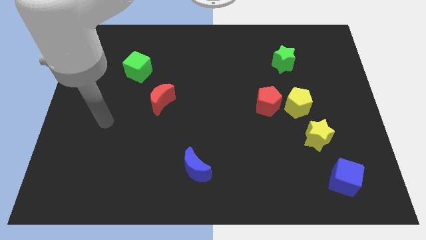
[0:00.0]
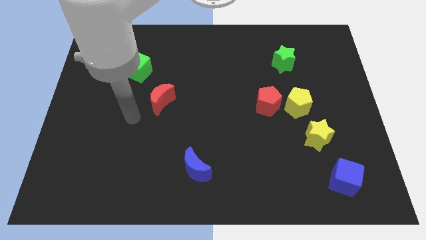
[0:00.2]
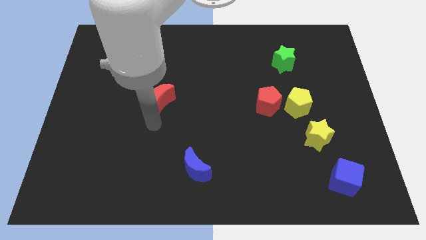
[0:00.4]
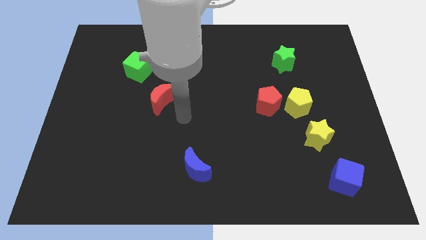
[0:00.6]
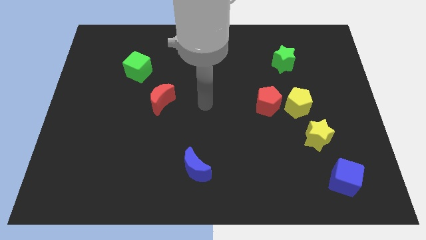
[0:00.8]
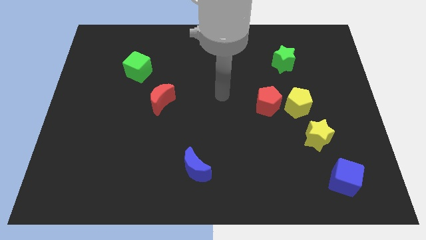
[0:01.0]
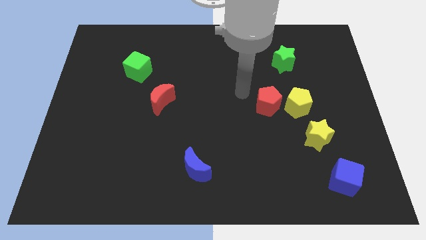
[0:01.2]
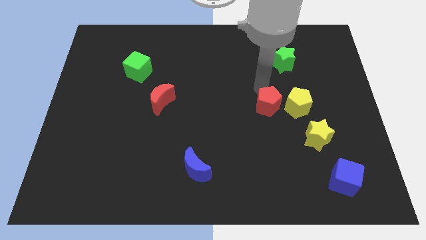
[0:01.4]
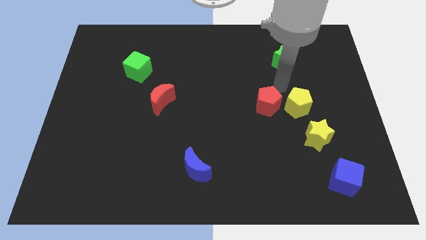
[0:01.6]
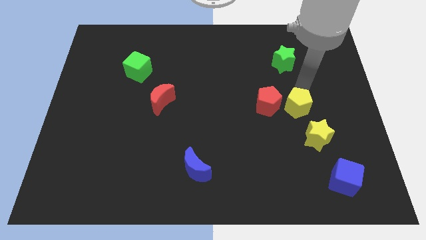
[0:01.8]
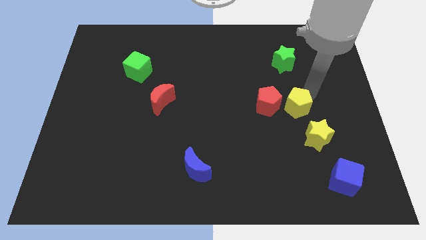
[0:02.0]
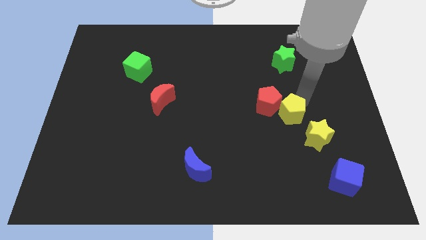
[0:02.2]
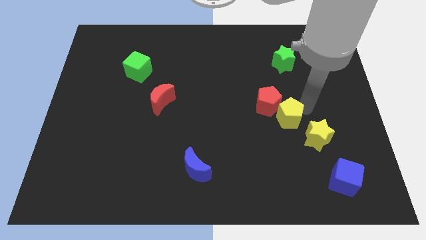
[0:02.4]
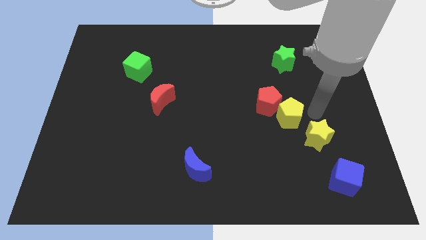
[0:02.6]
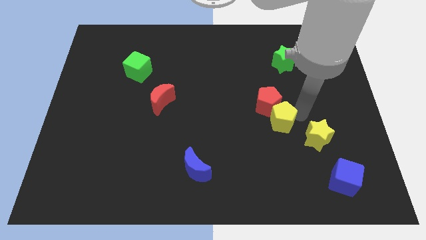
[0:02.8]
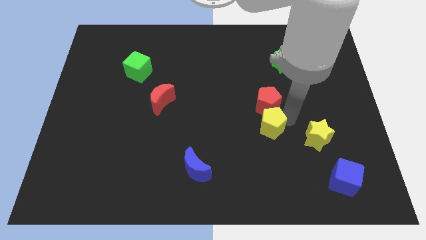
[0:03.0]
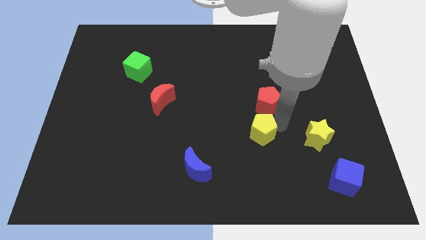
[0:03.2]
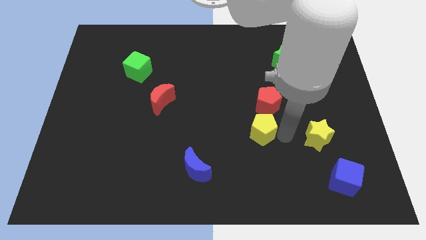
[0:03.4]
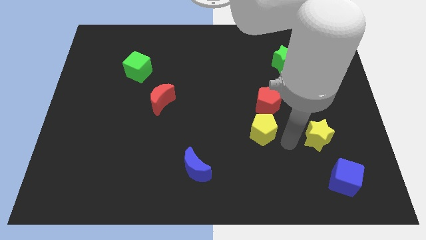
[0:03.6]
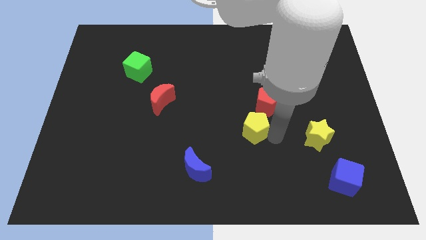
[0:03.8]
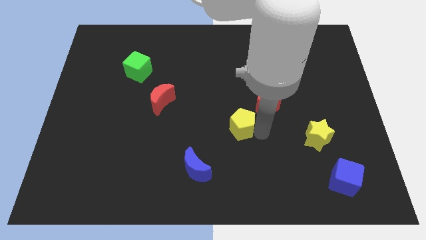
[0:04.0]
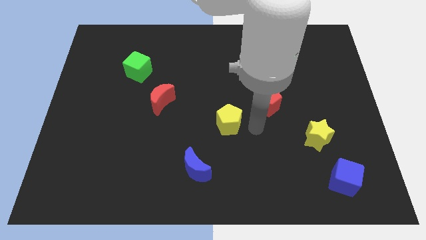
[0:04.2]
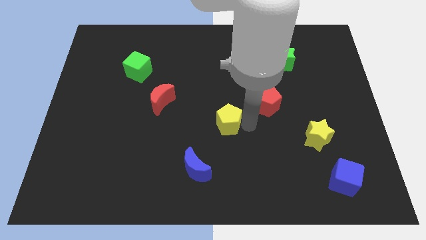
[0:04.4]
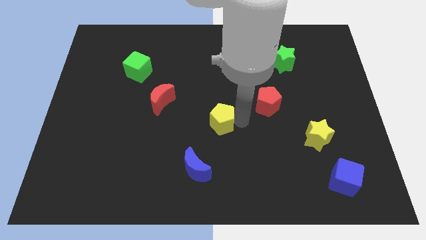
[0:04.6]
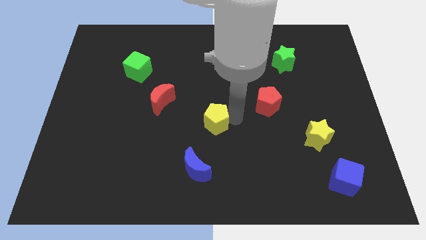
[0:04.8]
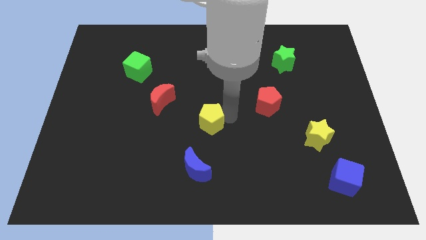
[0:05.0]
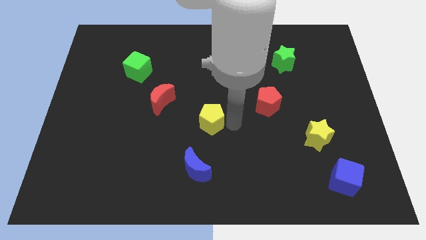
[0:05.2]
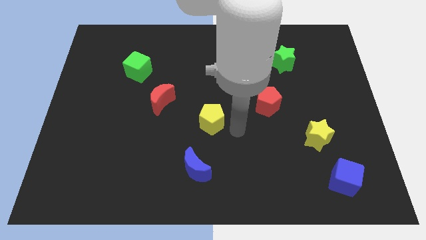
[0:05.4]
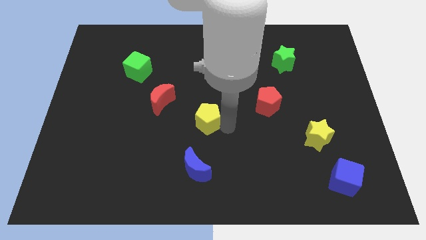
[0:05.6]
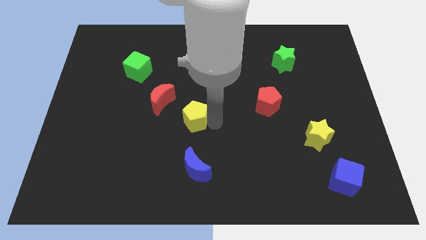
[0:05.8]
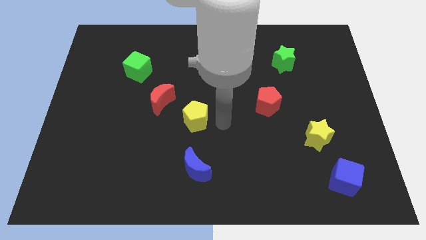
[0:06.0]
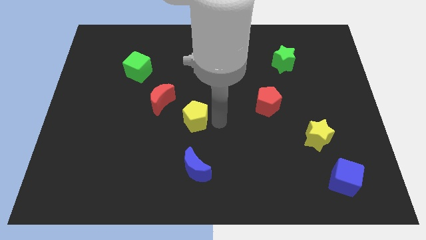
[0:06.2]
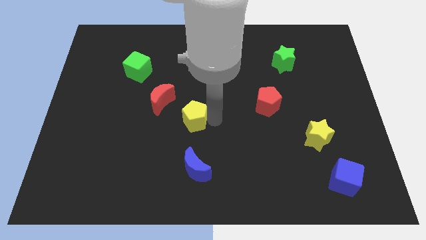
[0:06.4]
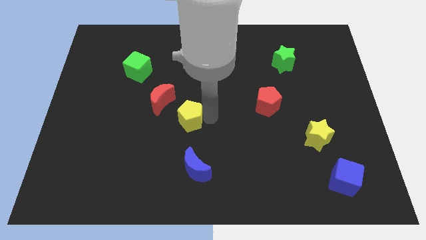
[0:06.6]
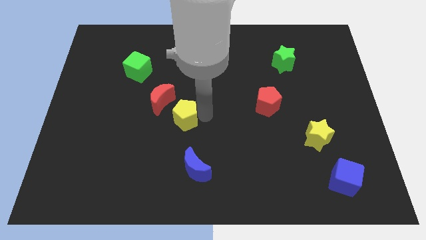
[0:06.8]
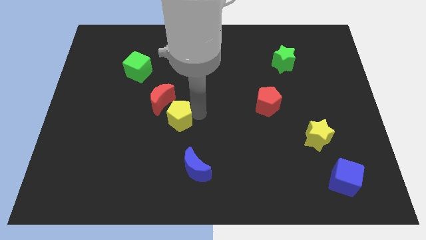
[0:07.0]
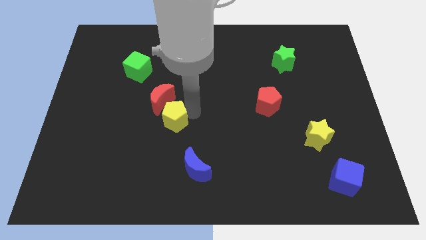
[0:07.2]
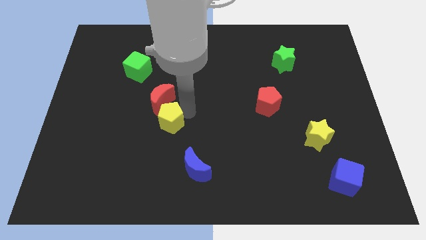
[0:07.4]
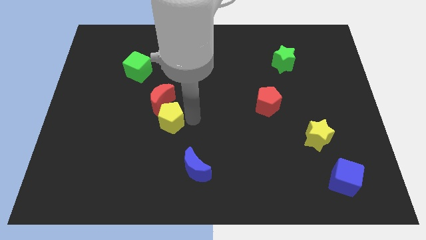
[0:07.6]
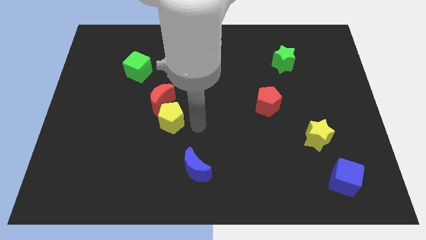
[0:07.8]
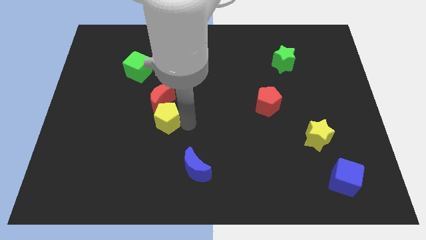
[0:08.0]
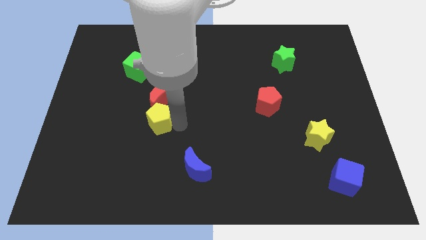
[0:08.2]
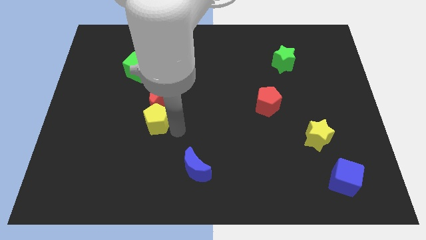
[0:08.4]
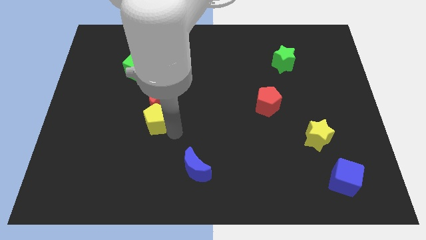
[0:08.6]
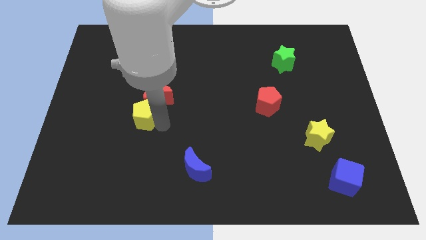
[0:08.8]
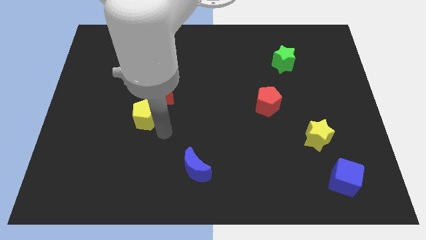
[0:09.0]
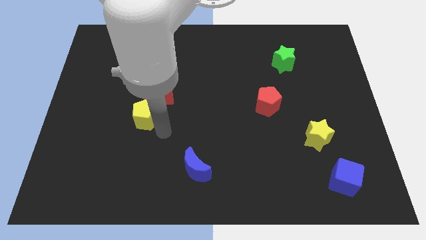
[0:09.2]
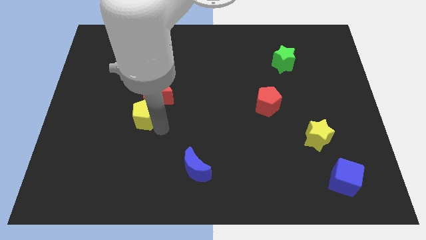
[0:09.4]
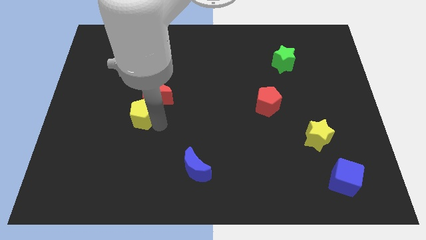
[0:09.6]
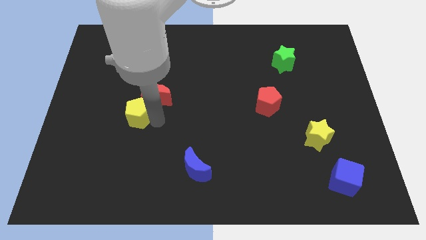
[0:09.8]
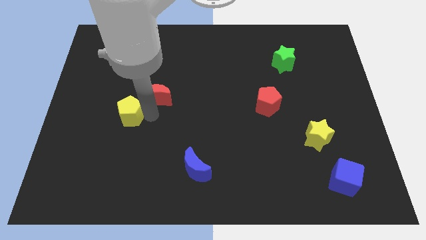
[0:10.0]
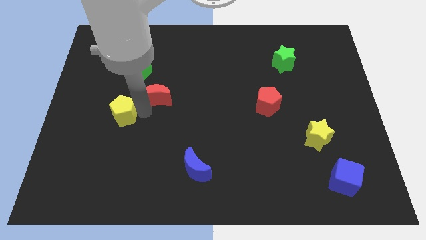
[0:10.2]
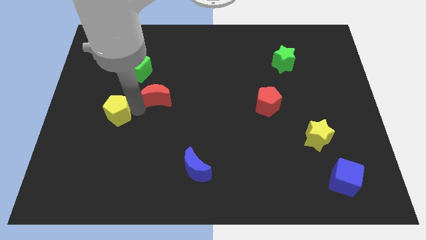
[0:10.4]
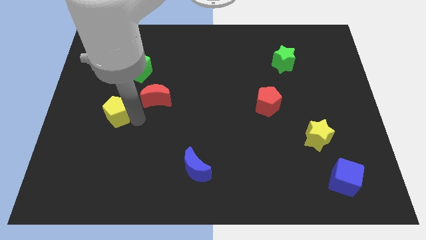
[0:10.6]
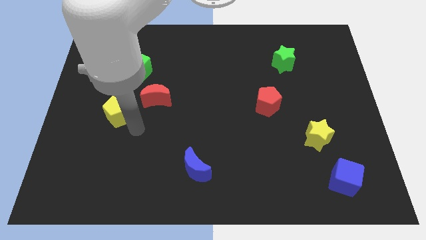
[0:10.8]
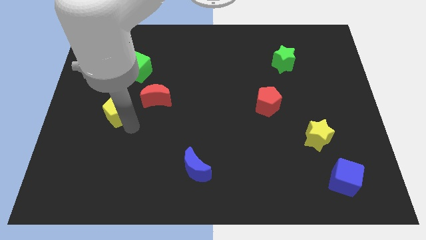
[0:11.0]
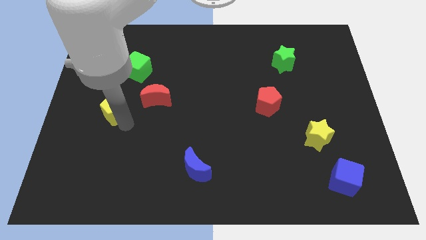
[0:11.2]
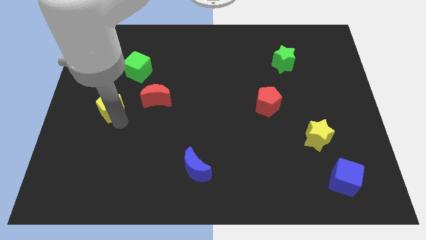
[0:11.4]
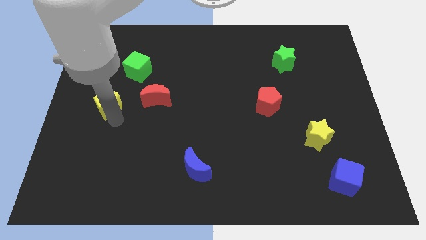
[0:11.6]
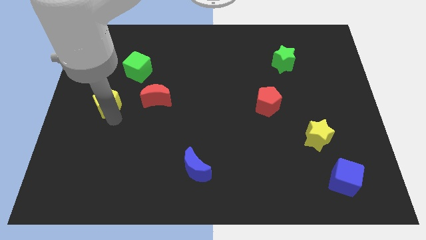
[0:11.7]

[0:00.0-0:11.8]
put the yellow pentagon to the left side of the board
